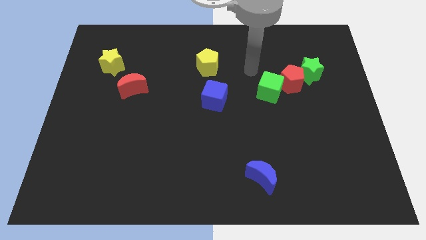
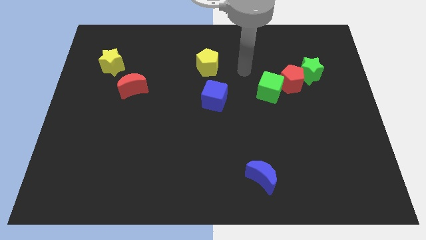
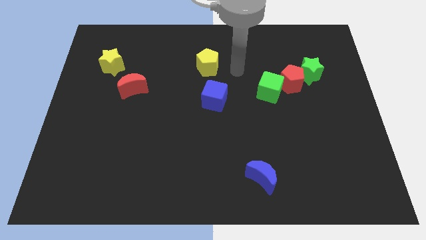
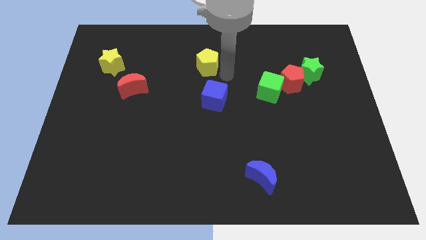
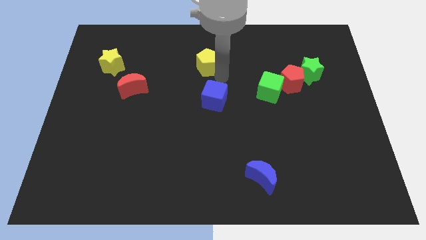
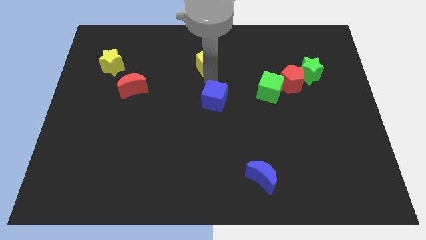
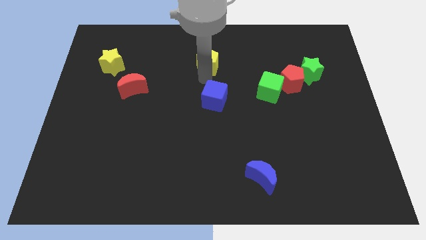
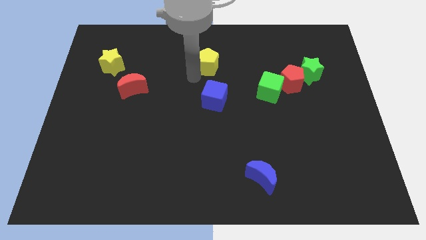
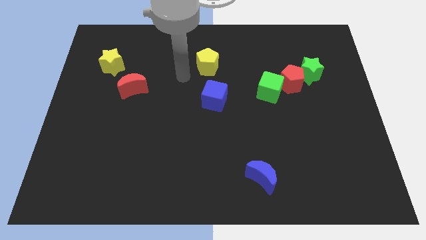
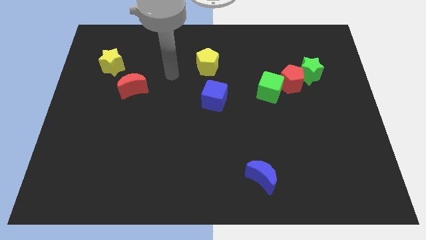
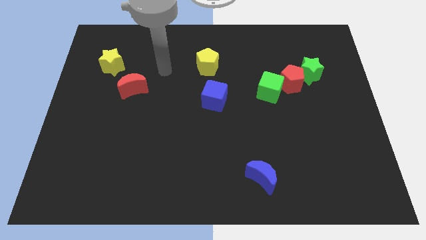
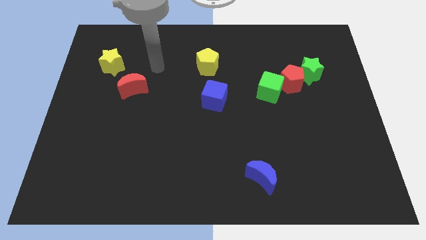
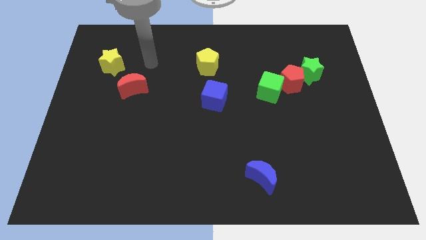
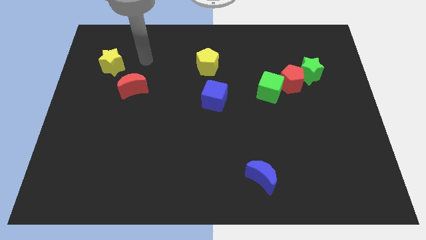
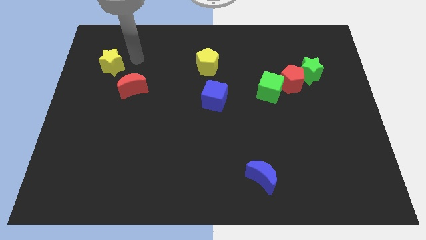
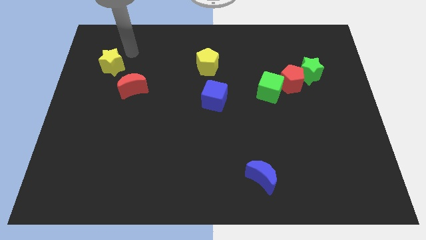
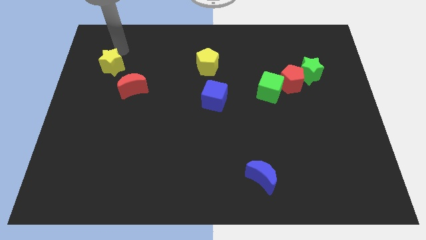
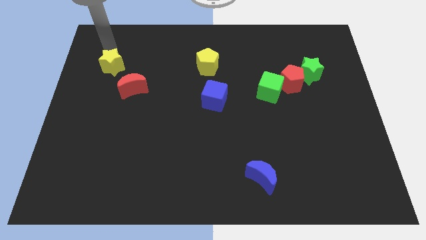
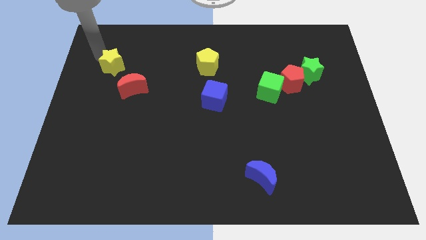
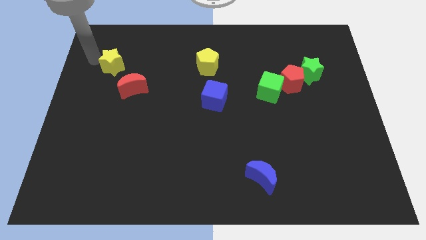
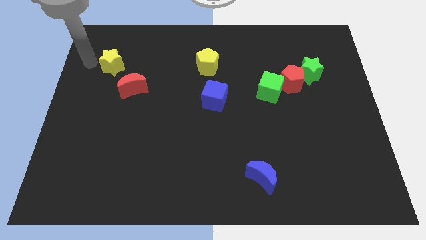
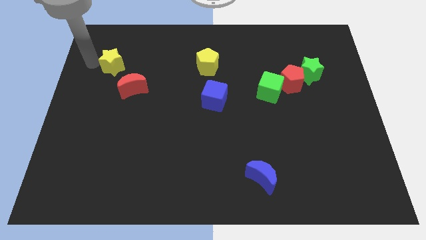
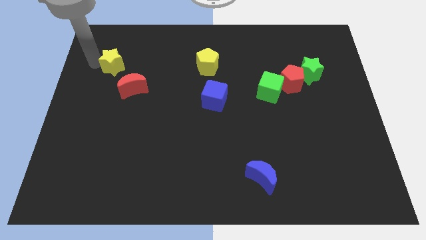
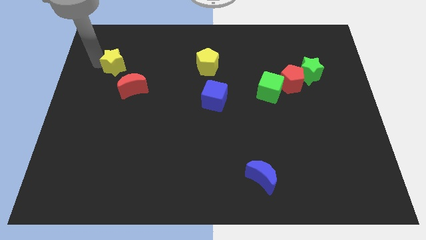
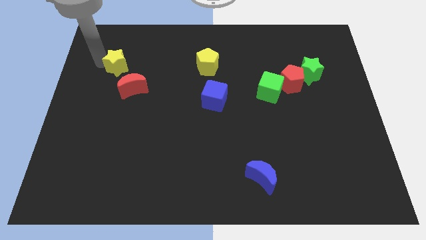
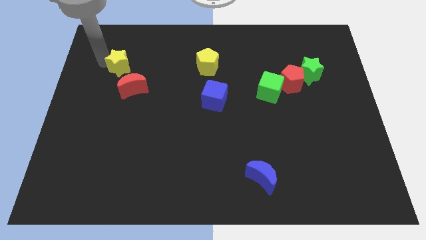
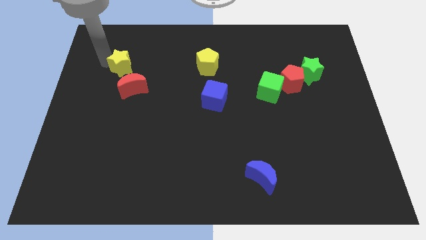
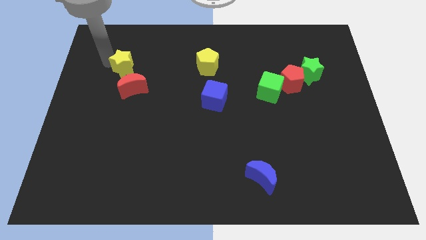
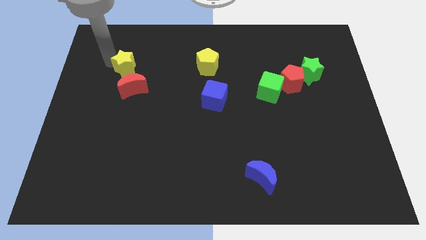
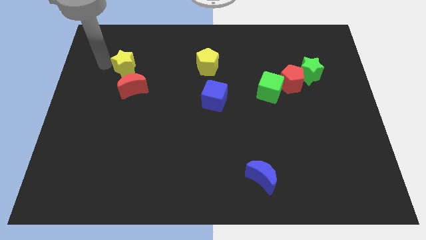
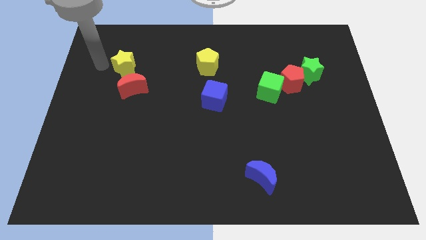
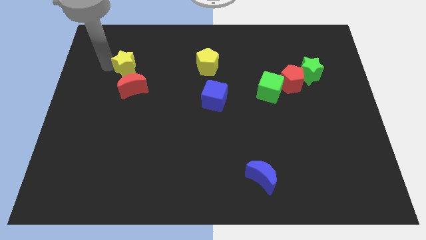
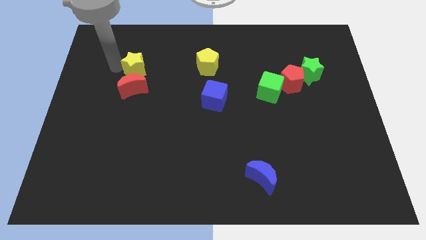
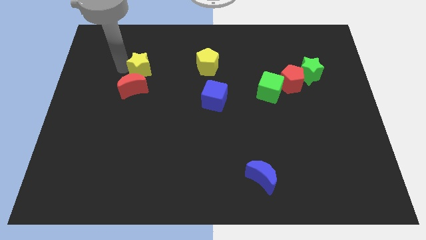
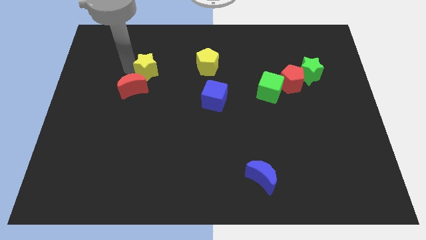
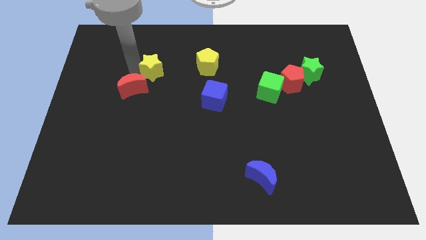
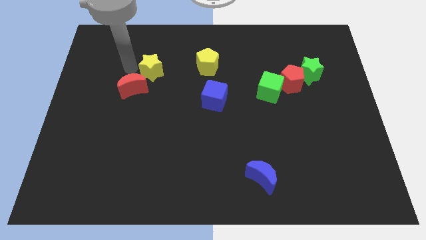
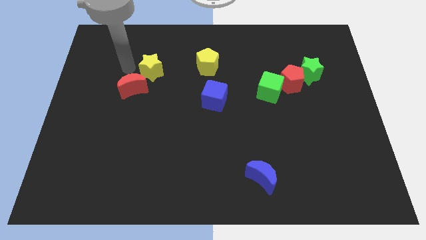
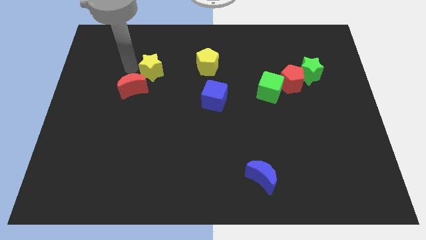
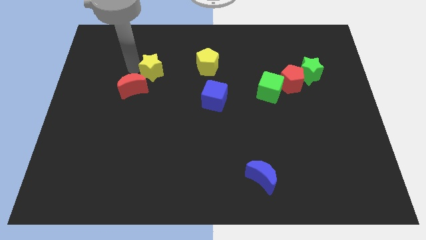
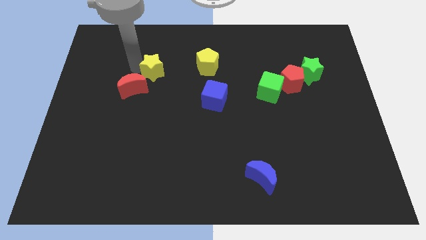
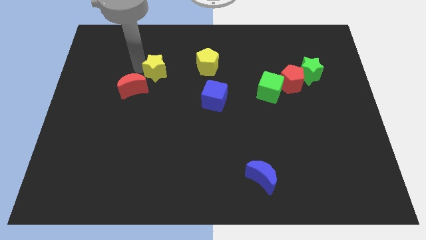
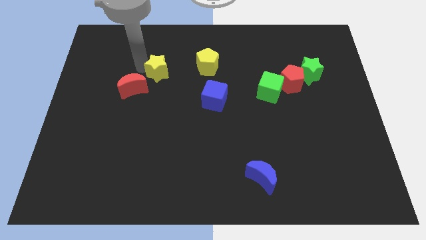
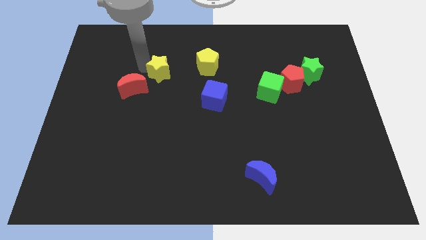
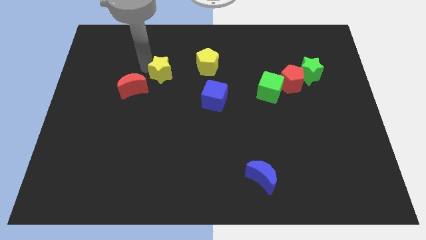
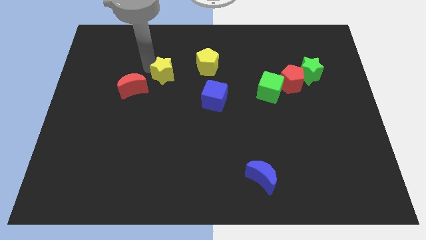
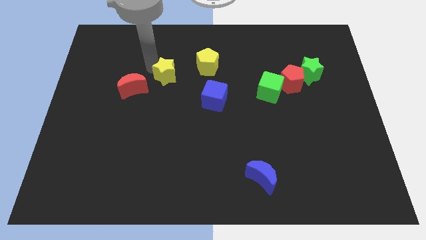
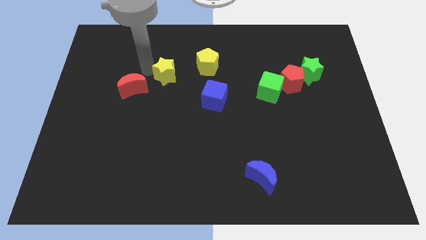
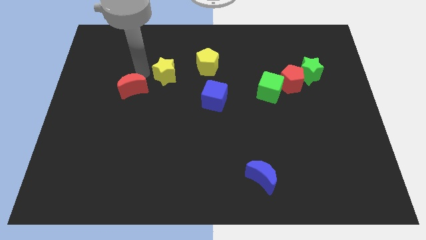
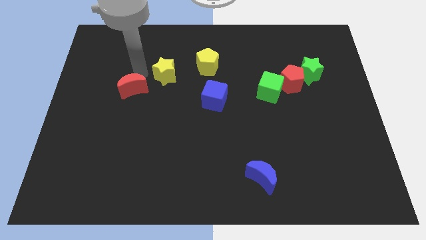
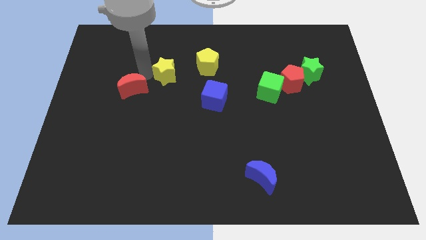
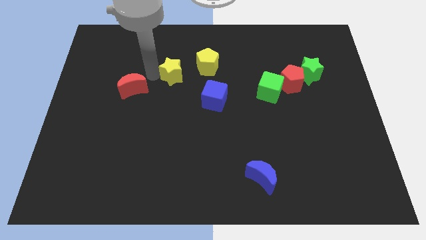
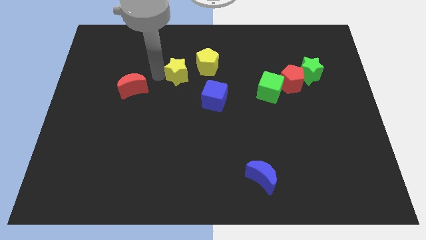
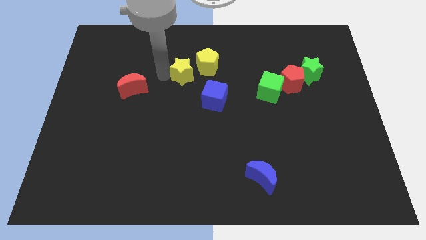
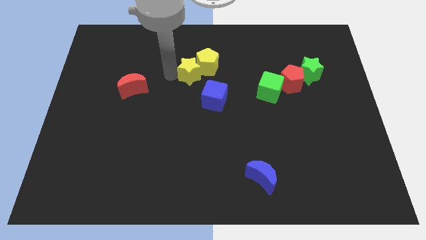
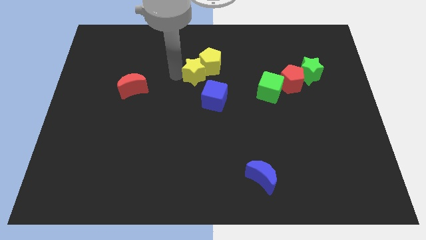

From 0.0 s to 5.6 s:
slide the yellow star to the right

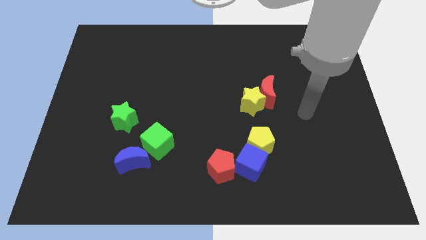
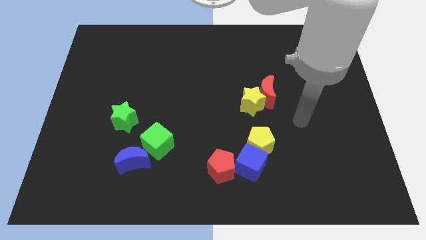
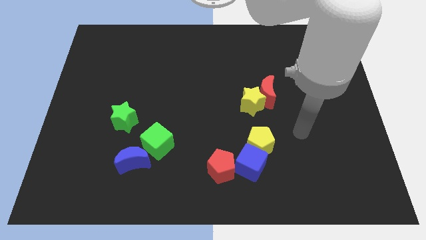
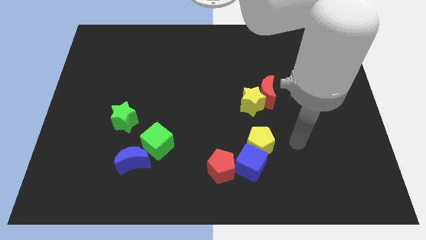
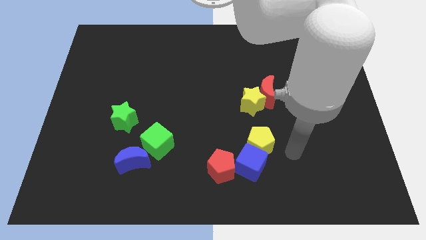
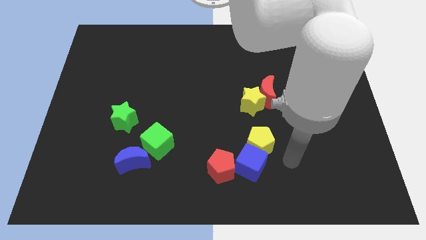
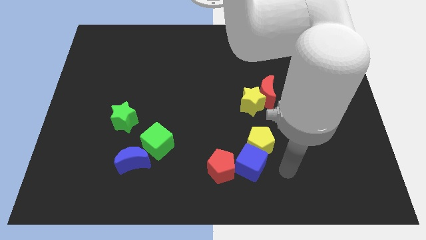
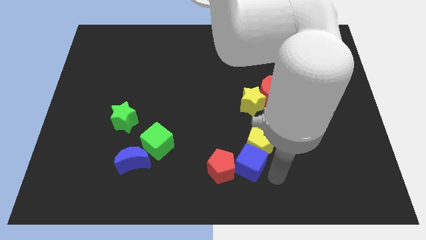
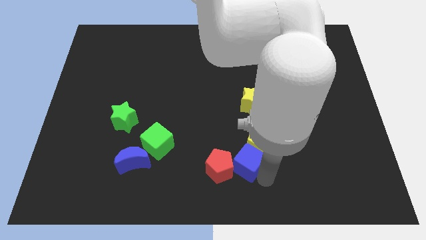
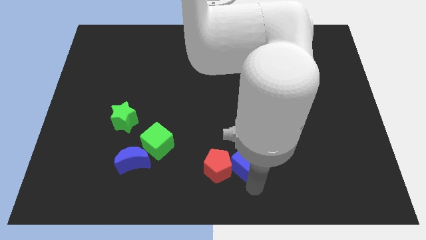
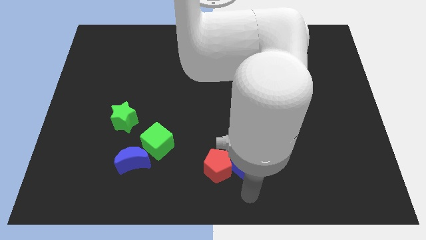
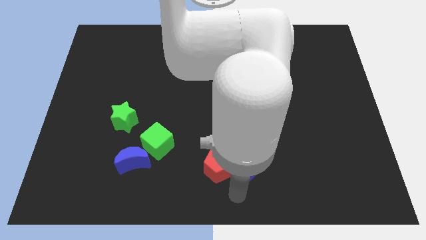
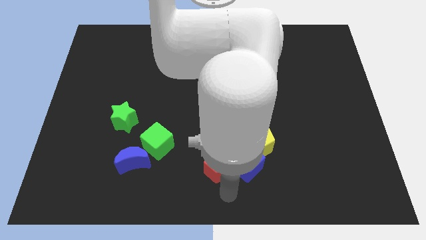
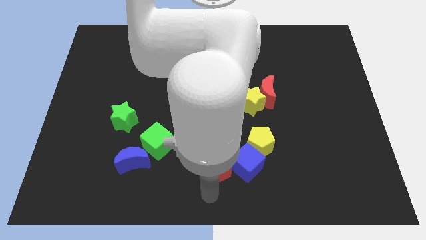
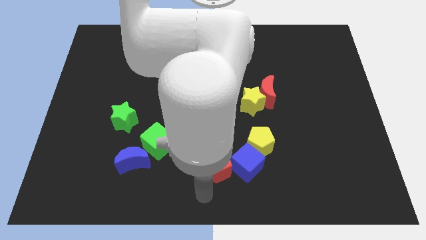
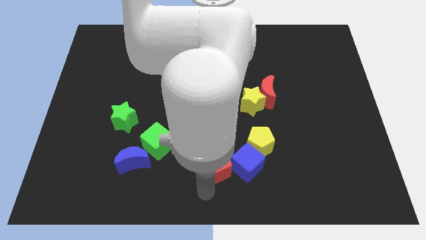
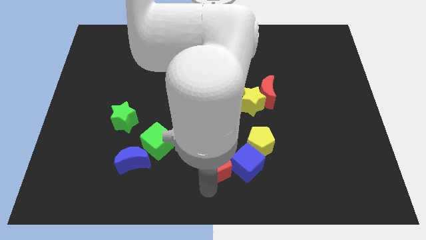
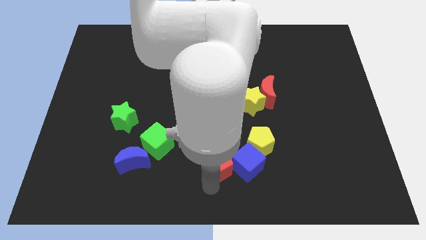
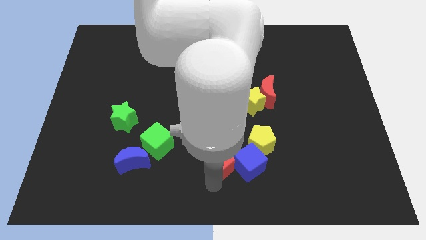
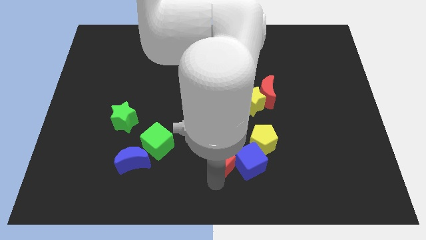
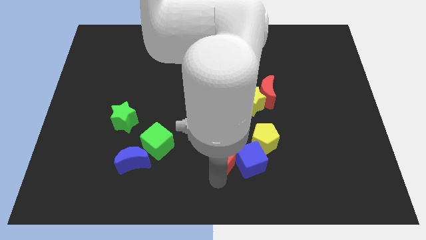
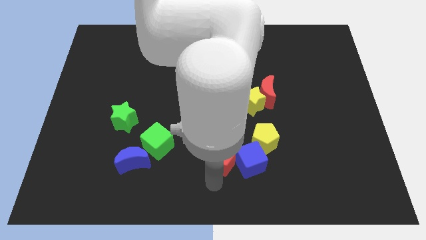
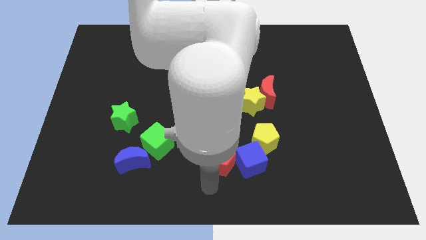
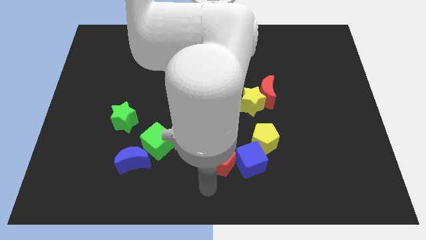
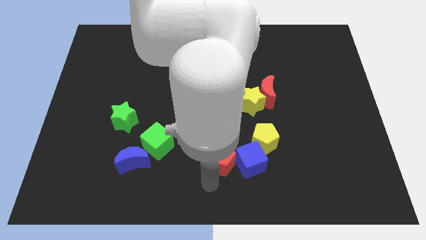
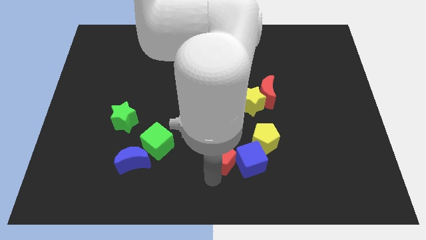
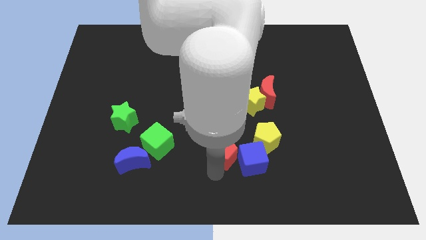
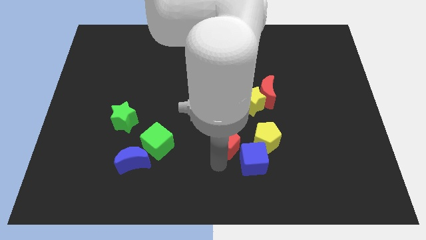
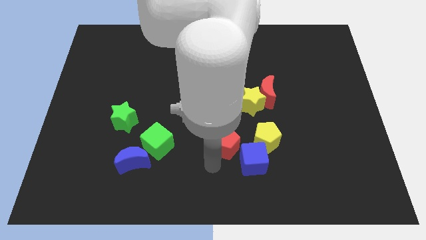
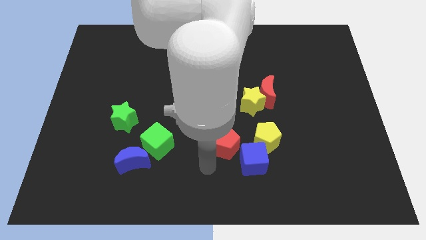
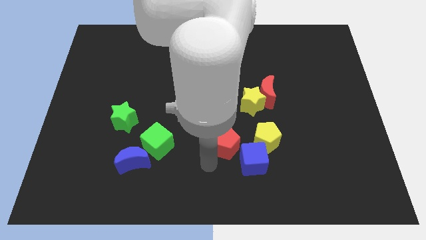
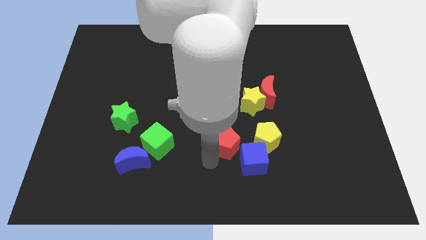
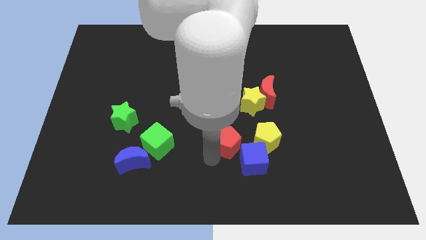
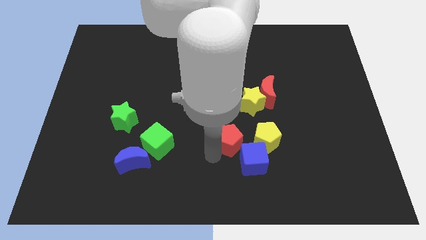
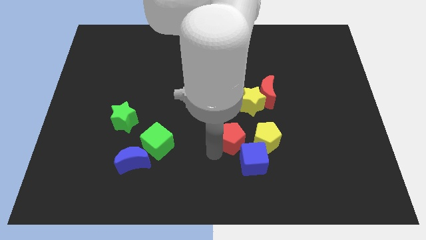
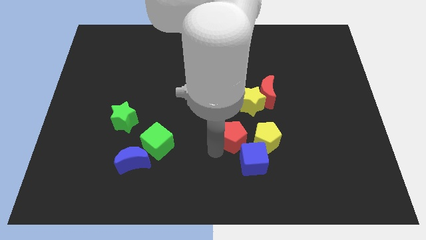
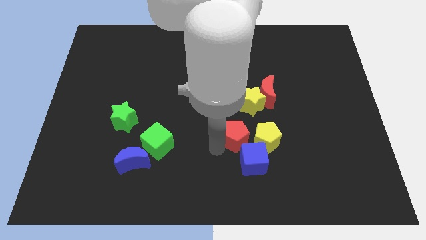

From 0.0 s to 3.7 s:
move the red pentagon a little upwards and right diagonally
